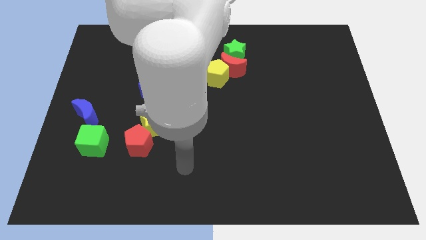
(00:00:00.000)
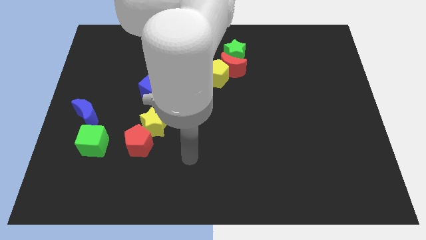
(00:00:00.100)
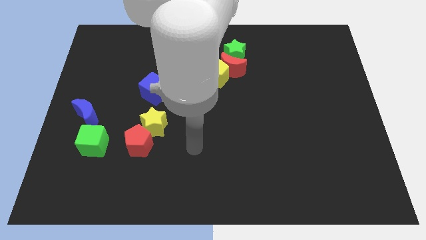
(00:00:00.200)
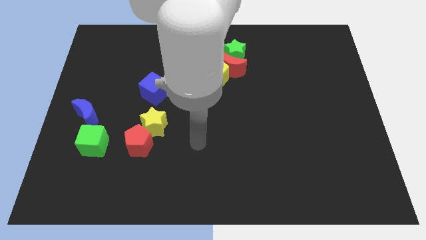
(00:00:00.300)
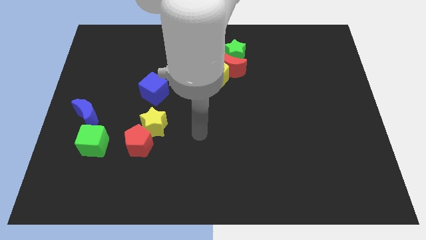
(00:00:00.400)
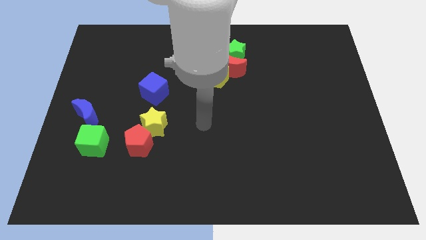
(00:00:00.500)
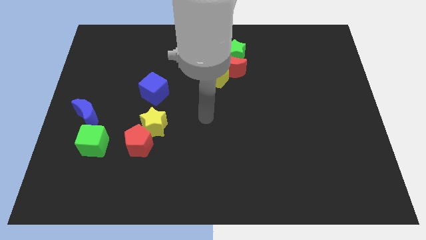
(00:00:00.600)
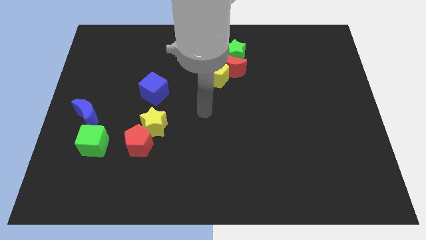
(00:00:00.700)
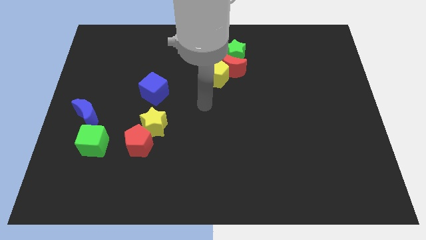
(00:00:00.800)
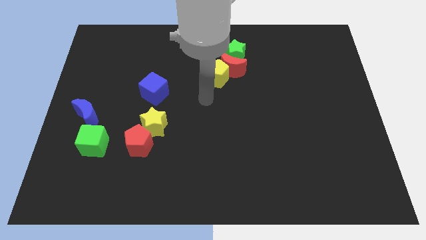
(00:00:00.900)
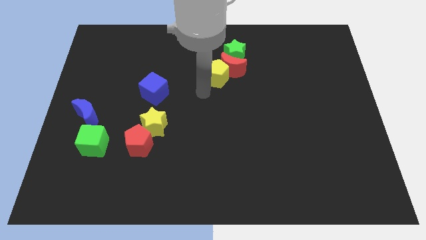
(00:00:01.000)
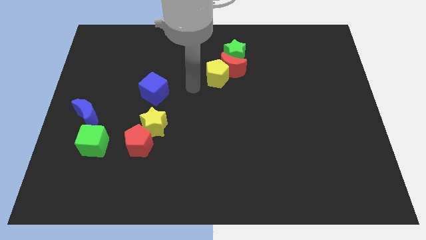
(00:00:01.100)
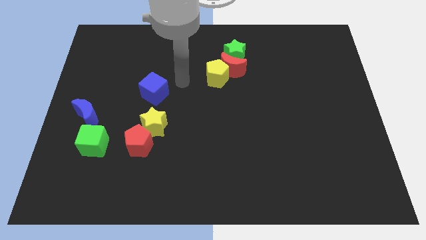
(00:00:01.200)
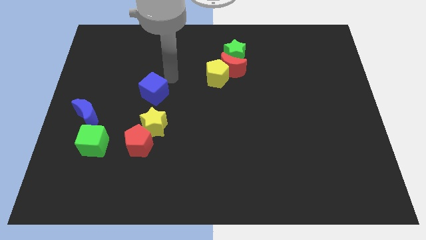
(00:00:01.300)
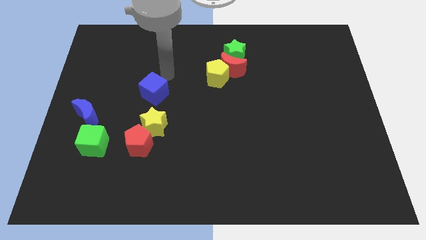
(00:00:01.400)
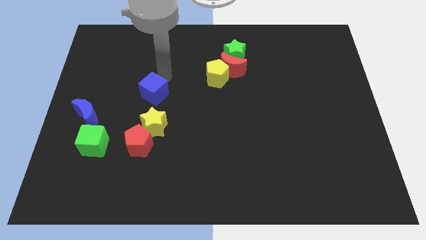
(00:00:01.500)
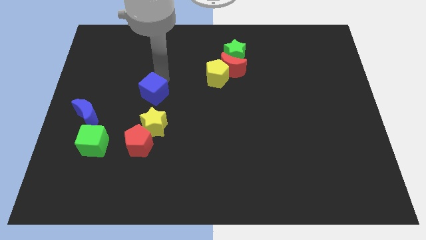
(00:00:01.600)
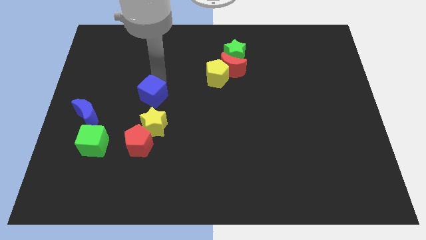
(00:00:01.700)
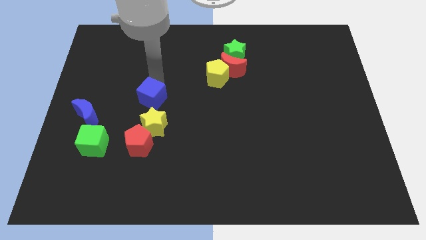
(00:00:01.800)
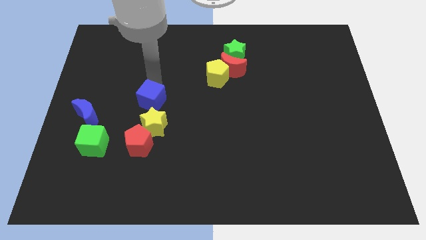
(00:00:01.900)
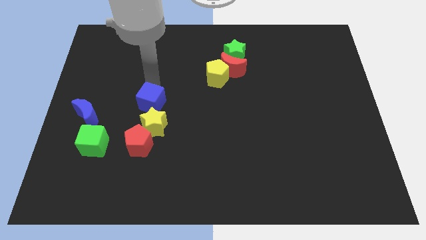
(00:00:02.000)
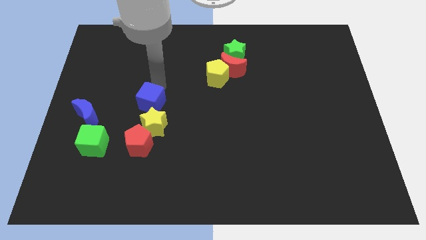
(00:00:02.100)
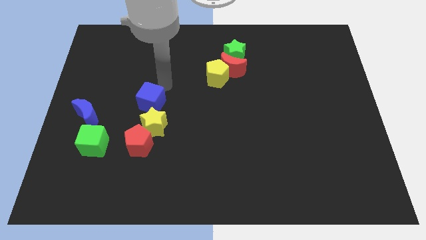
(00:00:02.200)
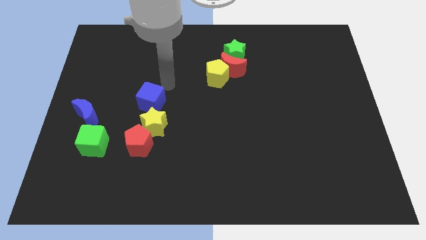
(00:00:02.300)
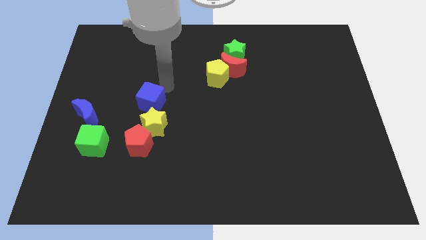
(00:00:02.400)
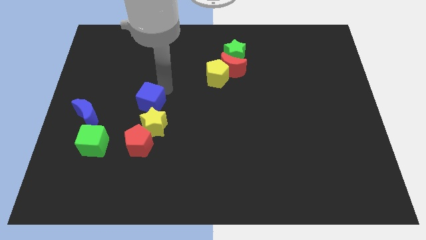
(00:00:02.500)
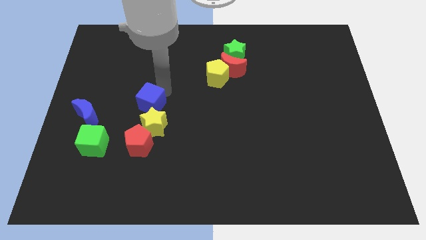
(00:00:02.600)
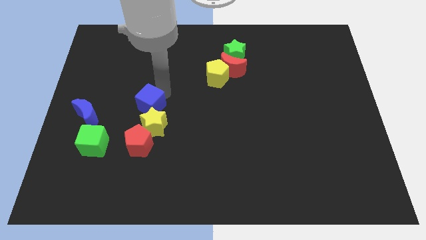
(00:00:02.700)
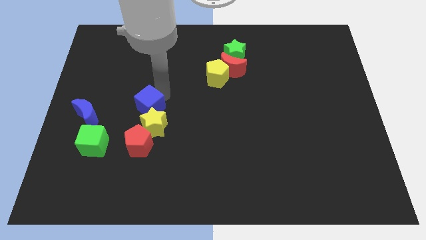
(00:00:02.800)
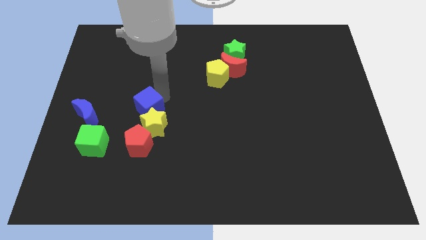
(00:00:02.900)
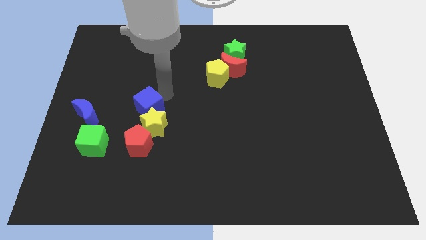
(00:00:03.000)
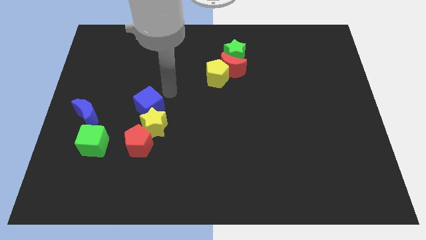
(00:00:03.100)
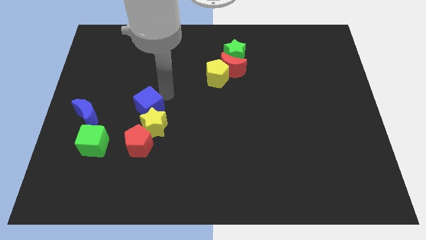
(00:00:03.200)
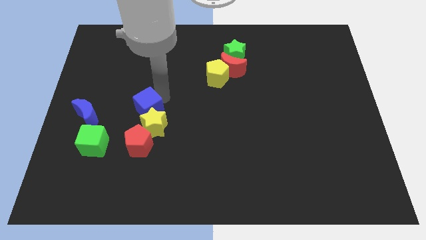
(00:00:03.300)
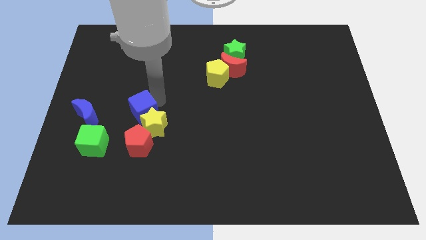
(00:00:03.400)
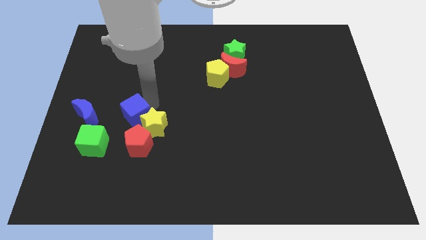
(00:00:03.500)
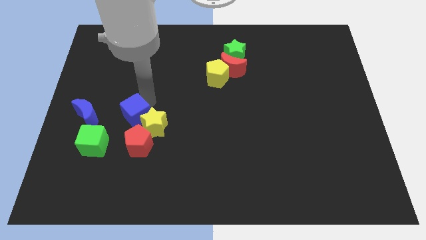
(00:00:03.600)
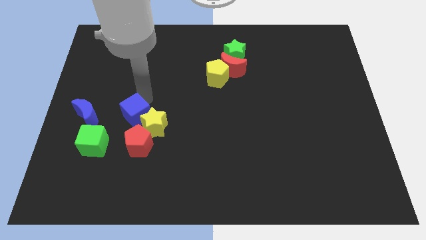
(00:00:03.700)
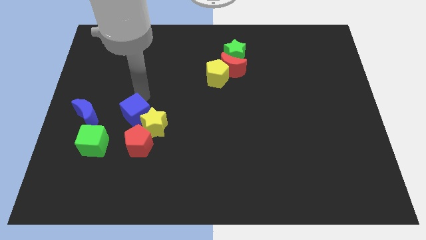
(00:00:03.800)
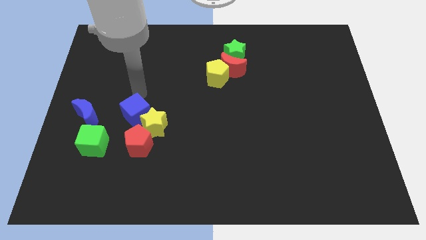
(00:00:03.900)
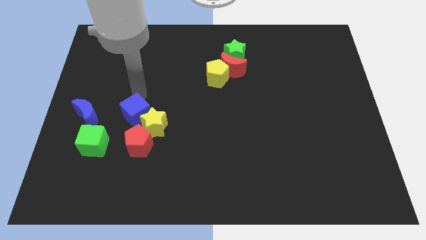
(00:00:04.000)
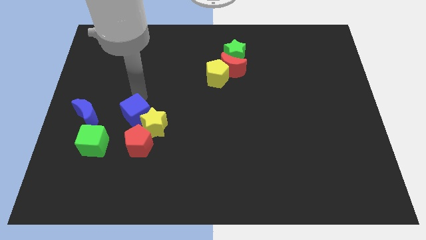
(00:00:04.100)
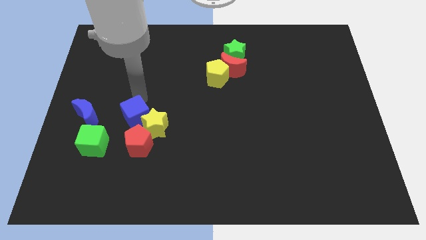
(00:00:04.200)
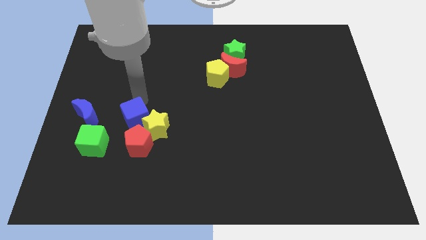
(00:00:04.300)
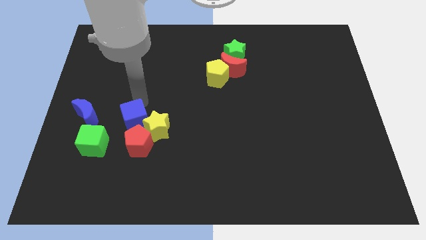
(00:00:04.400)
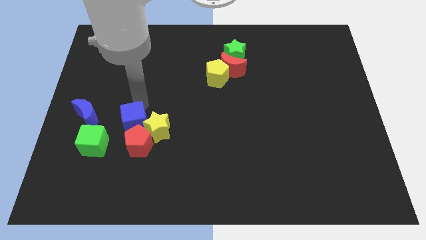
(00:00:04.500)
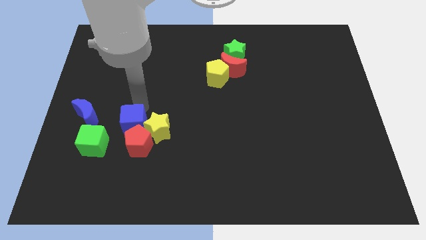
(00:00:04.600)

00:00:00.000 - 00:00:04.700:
put the blue cube next to the red pentagon

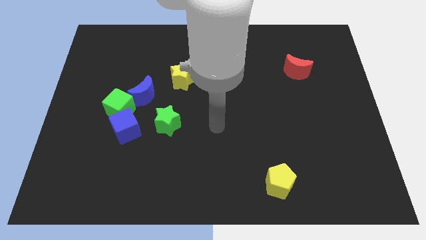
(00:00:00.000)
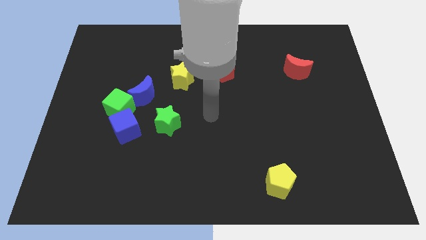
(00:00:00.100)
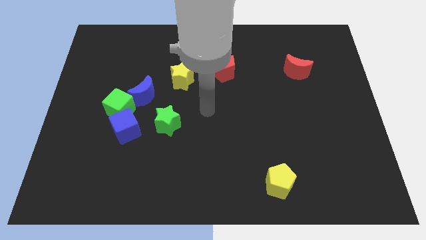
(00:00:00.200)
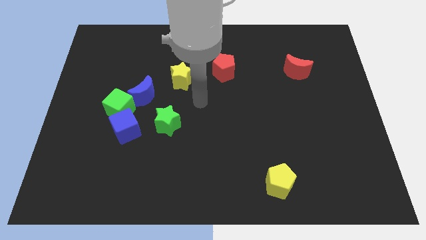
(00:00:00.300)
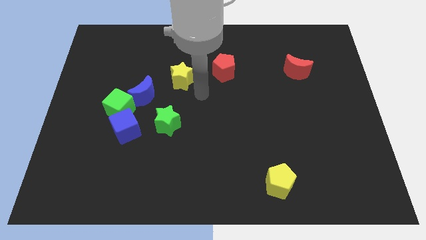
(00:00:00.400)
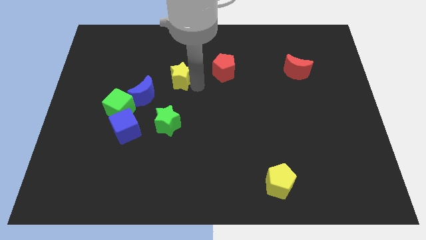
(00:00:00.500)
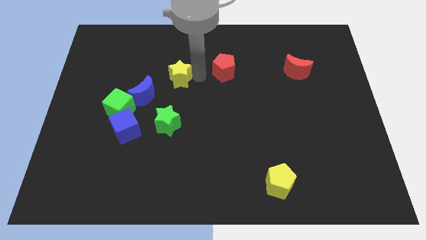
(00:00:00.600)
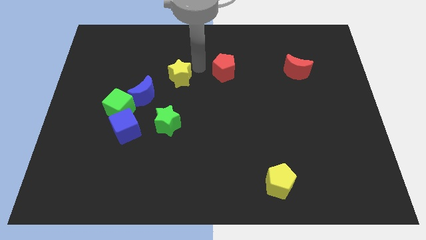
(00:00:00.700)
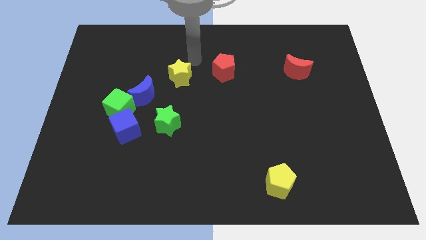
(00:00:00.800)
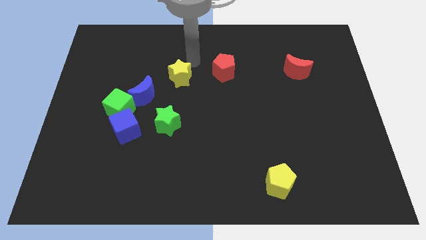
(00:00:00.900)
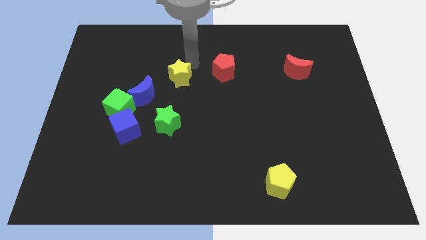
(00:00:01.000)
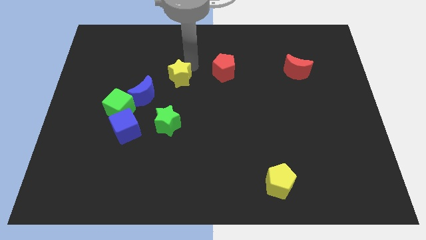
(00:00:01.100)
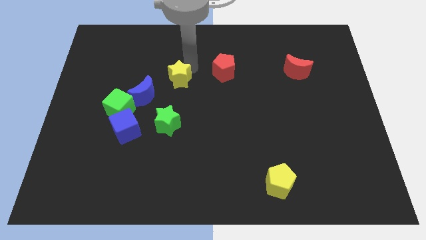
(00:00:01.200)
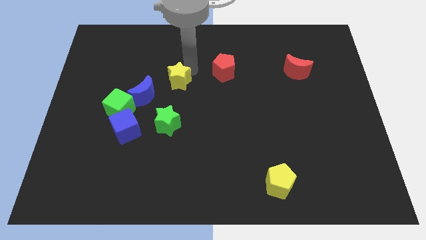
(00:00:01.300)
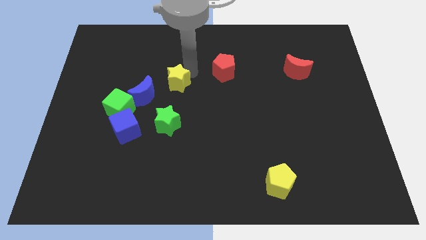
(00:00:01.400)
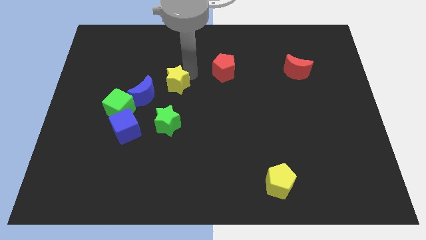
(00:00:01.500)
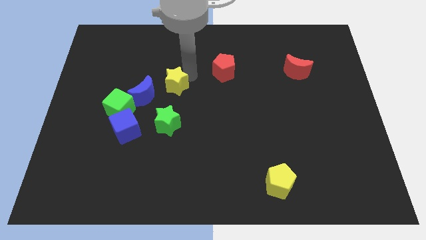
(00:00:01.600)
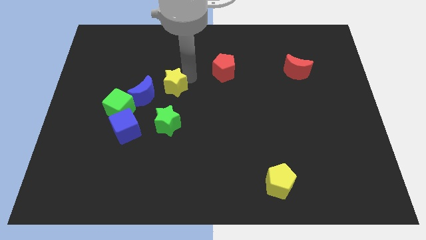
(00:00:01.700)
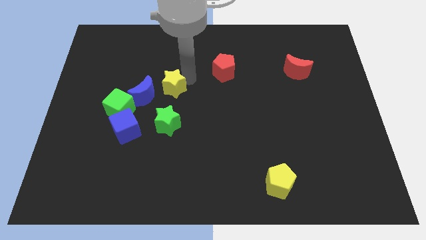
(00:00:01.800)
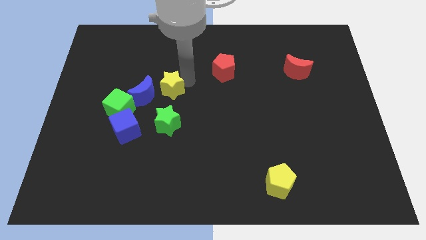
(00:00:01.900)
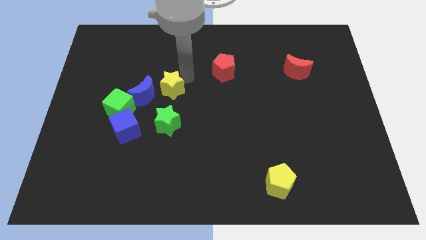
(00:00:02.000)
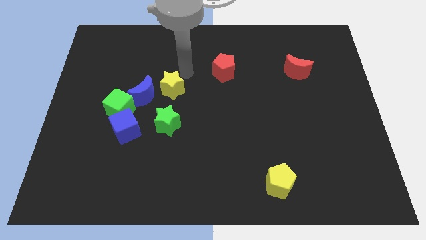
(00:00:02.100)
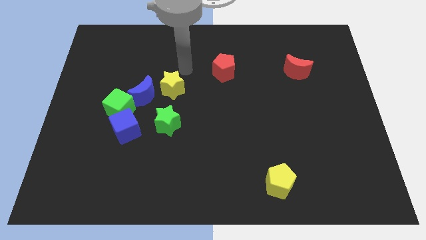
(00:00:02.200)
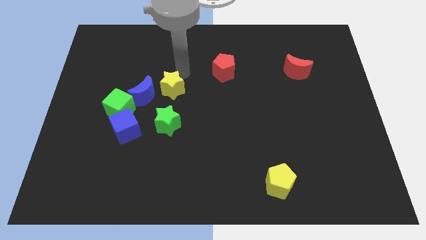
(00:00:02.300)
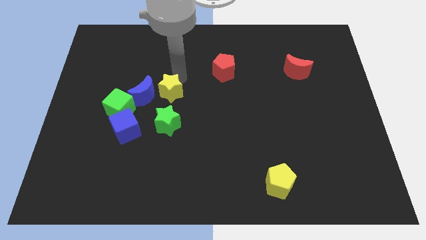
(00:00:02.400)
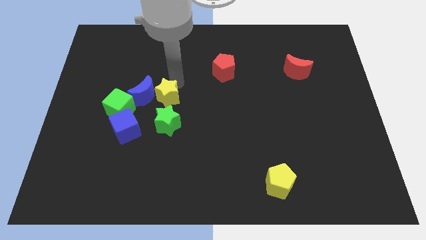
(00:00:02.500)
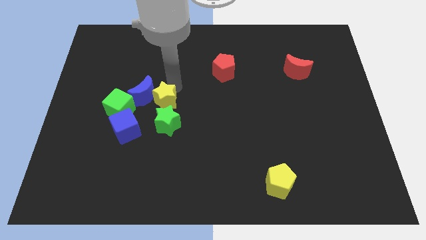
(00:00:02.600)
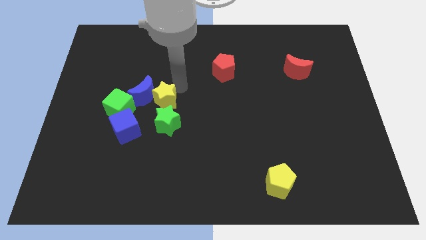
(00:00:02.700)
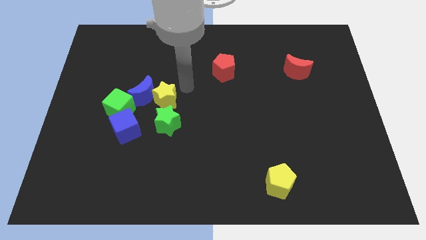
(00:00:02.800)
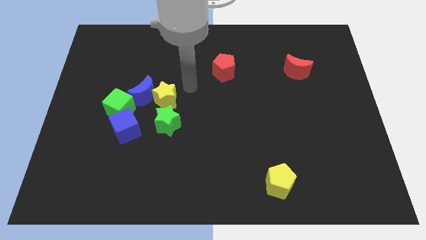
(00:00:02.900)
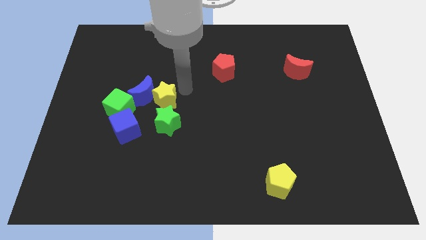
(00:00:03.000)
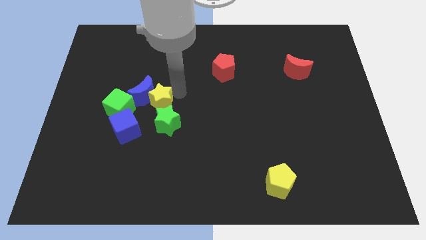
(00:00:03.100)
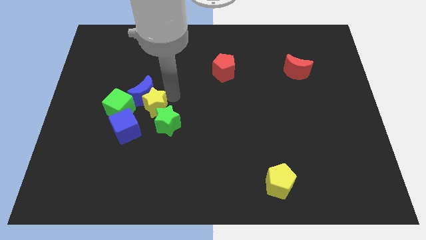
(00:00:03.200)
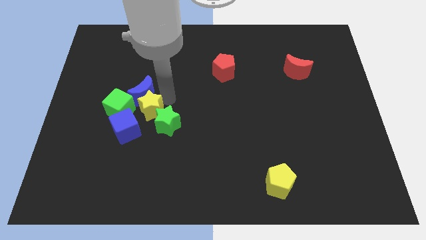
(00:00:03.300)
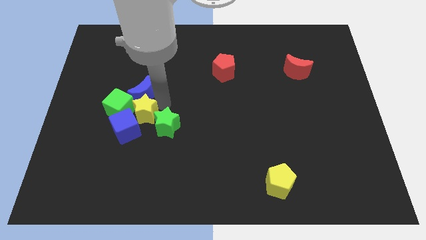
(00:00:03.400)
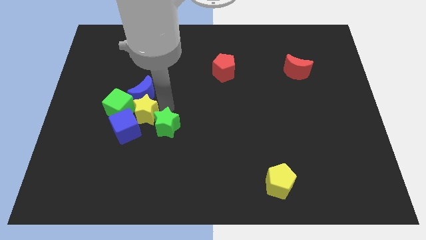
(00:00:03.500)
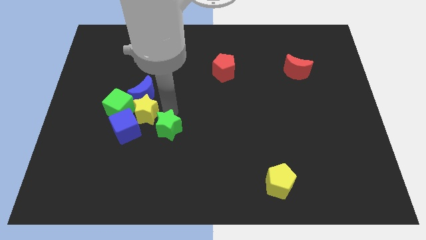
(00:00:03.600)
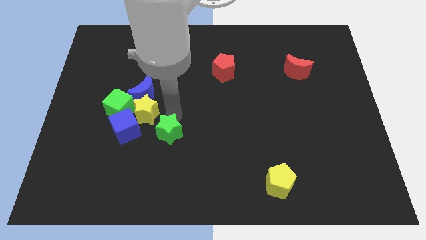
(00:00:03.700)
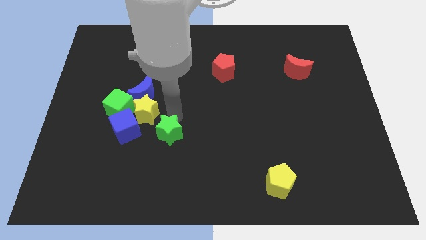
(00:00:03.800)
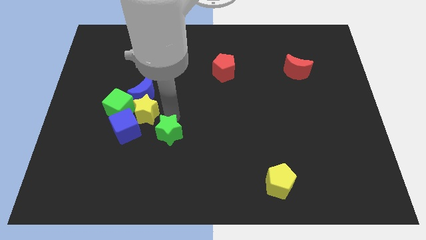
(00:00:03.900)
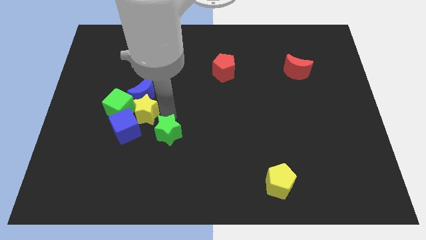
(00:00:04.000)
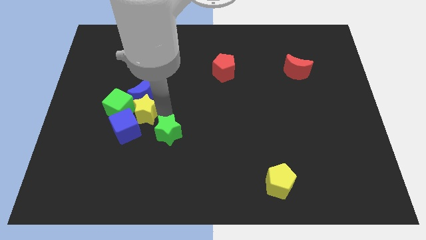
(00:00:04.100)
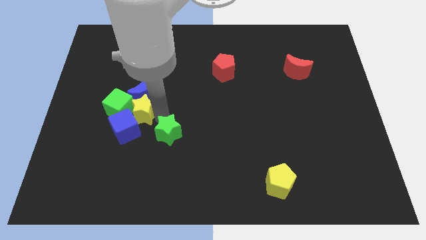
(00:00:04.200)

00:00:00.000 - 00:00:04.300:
push the yellow star towards the green cube
